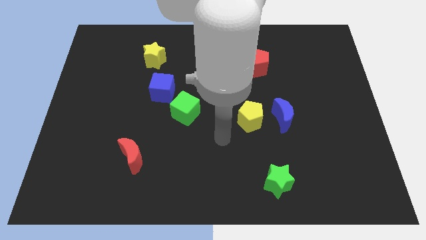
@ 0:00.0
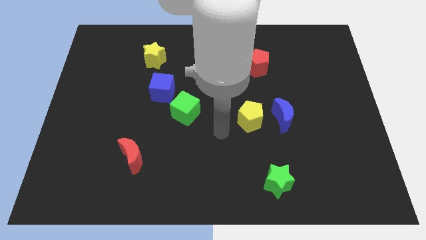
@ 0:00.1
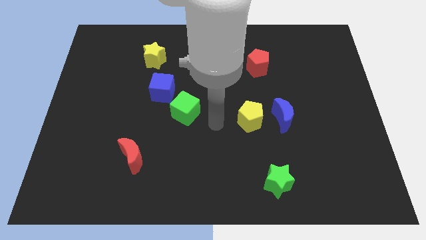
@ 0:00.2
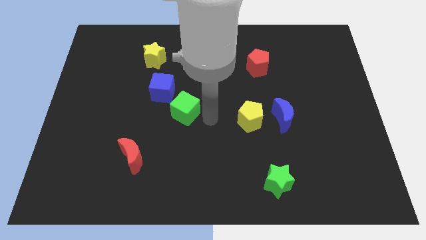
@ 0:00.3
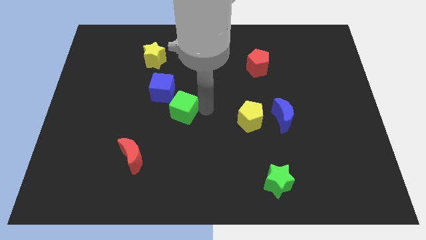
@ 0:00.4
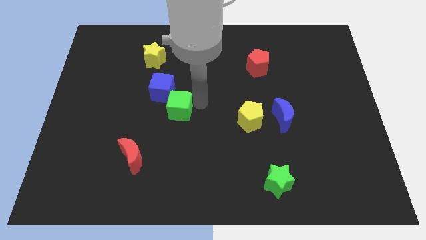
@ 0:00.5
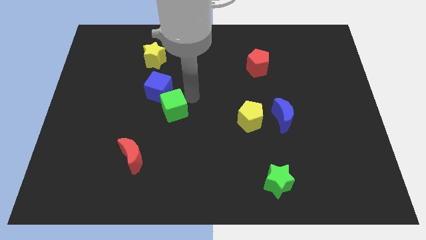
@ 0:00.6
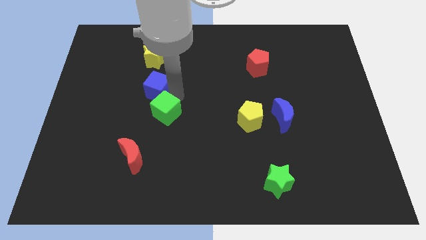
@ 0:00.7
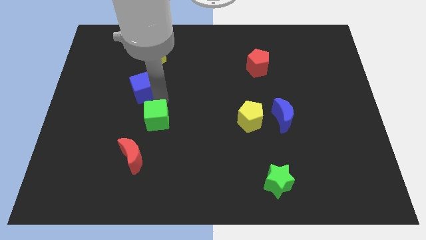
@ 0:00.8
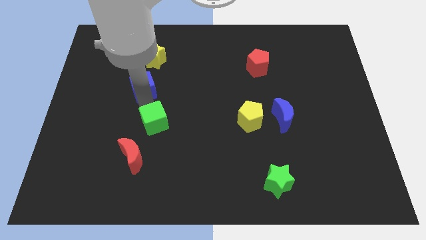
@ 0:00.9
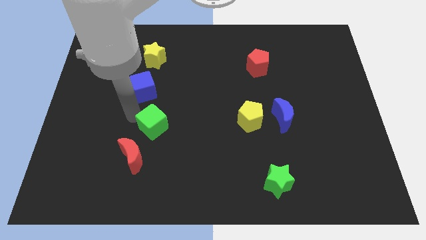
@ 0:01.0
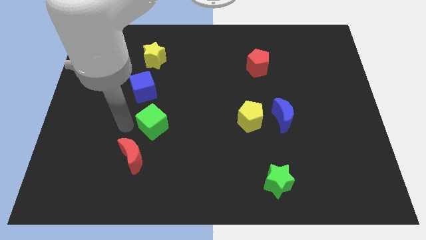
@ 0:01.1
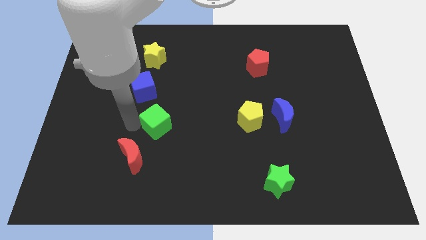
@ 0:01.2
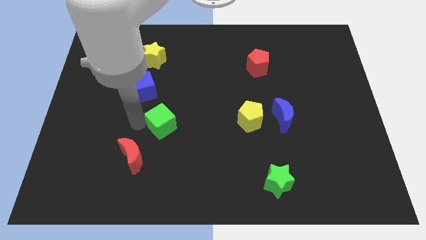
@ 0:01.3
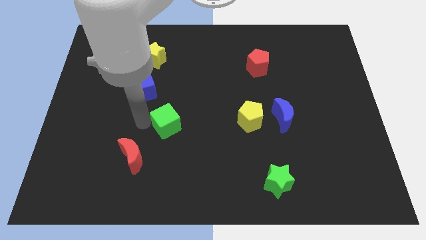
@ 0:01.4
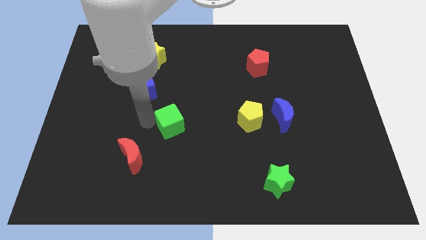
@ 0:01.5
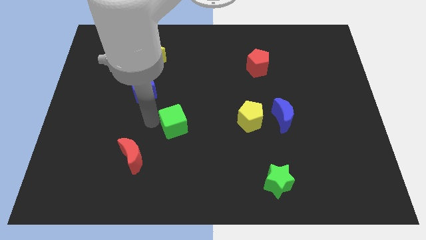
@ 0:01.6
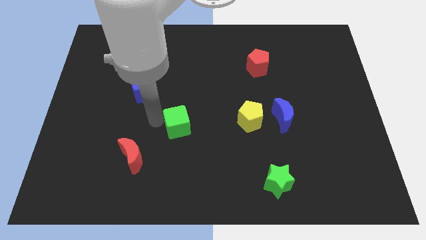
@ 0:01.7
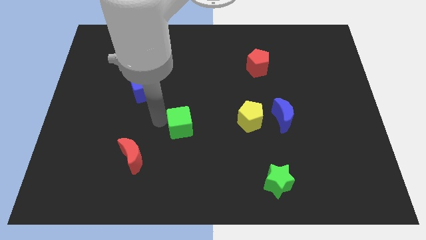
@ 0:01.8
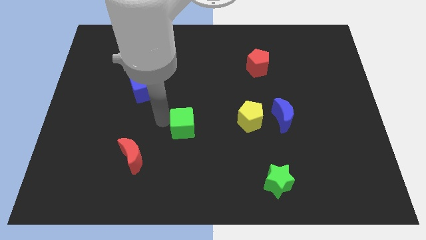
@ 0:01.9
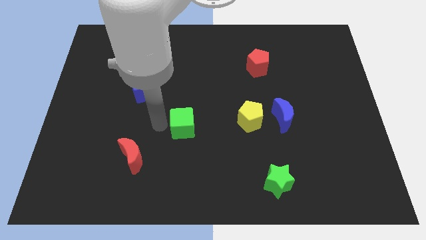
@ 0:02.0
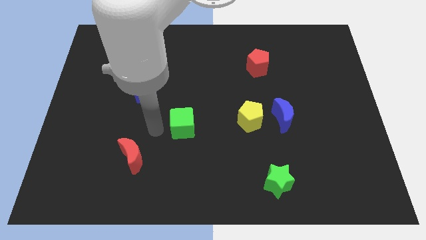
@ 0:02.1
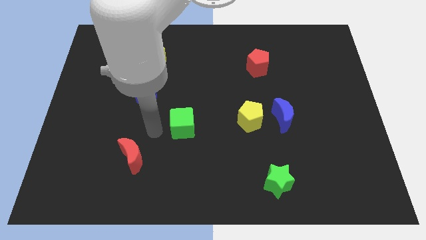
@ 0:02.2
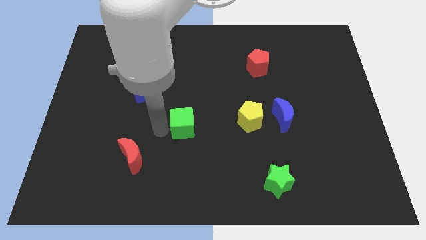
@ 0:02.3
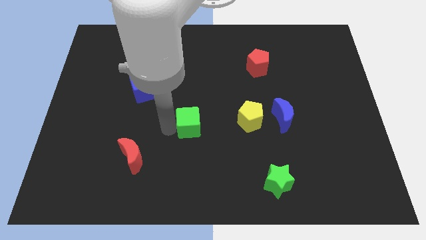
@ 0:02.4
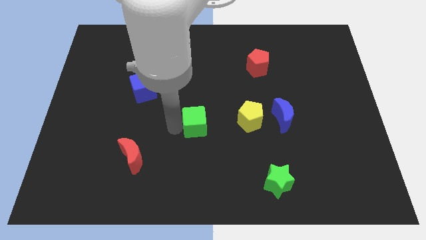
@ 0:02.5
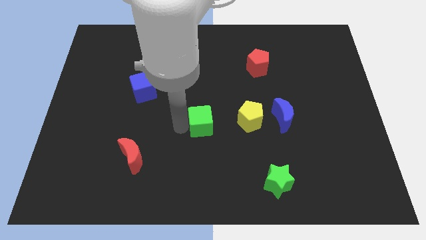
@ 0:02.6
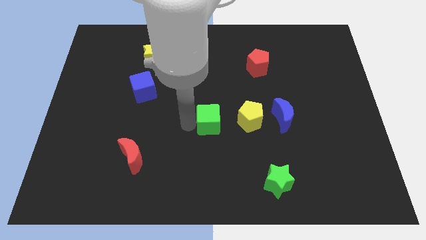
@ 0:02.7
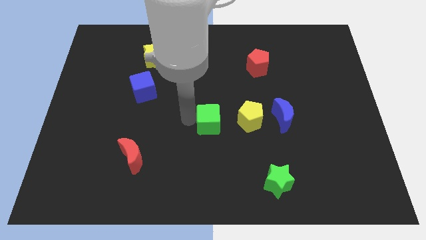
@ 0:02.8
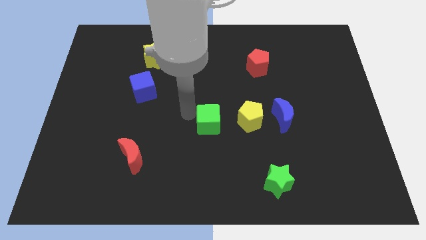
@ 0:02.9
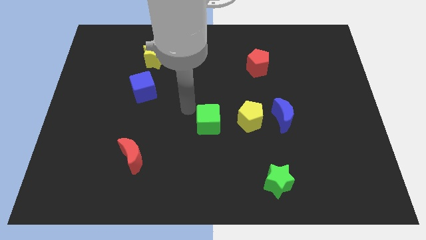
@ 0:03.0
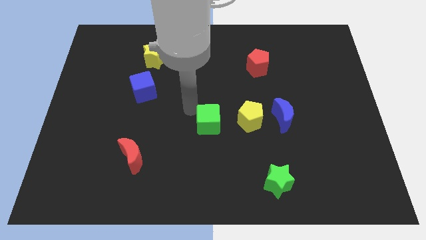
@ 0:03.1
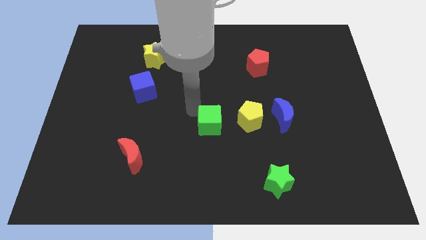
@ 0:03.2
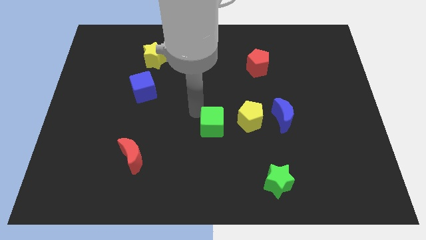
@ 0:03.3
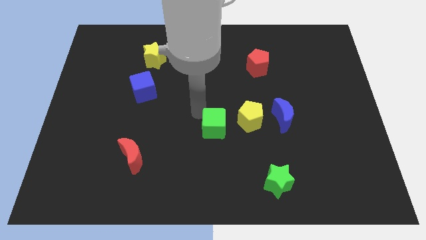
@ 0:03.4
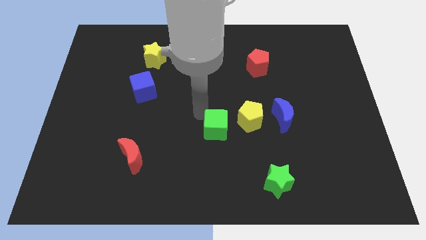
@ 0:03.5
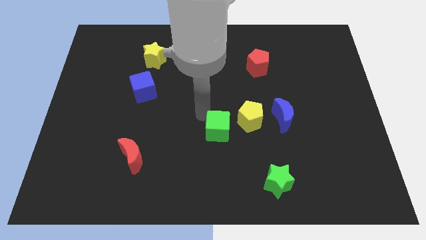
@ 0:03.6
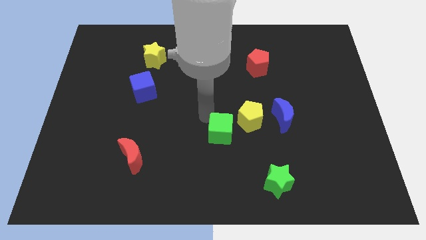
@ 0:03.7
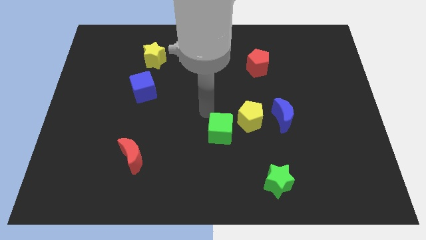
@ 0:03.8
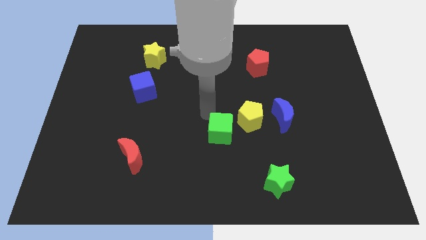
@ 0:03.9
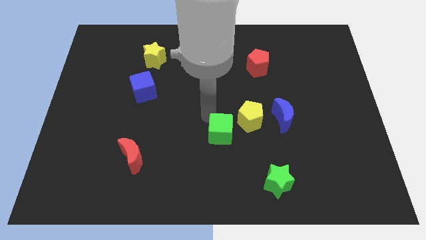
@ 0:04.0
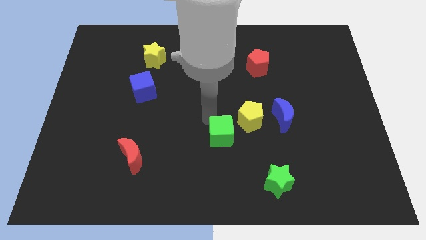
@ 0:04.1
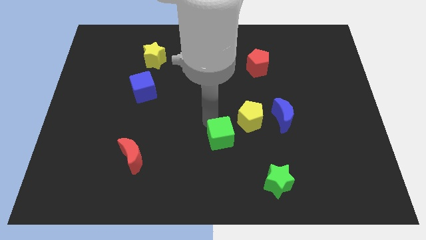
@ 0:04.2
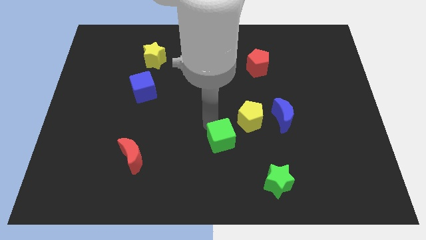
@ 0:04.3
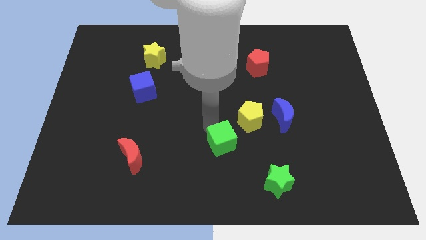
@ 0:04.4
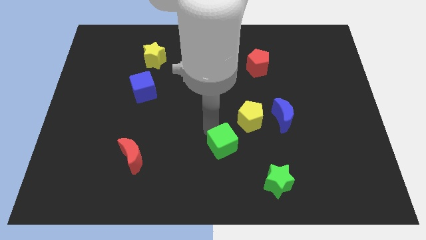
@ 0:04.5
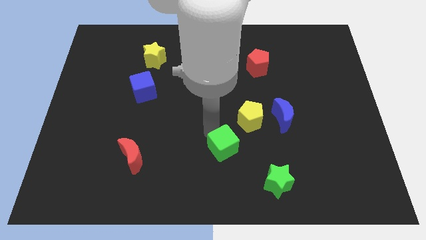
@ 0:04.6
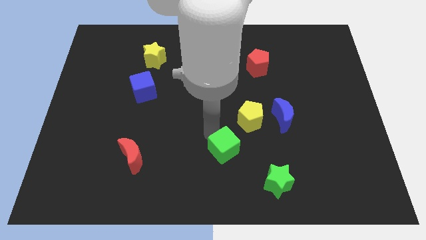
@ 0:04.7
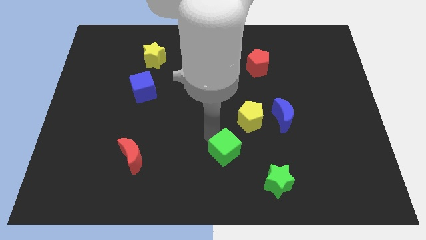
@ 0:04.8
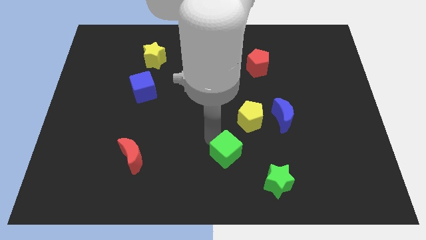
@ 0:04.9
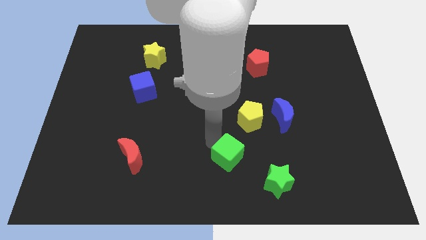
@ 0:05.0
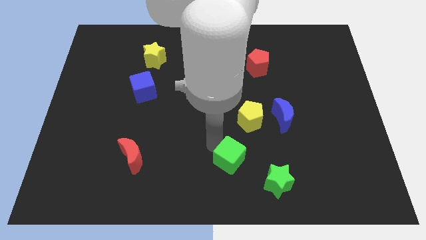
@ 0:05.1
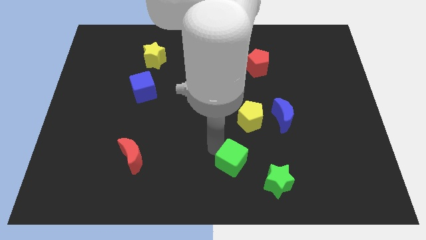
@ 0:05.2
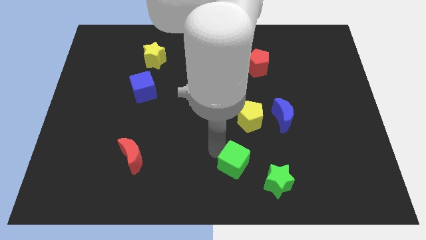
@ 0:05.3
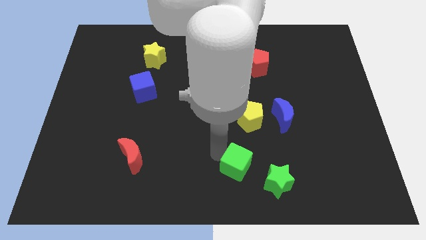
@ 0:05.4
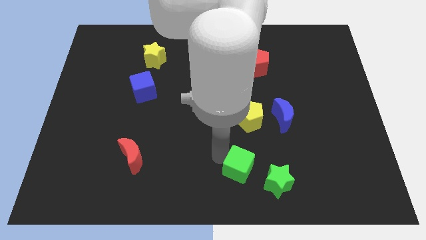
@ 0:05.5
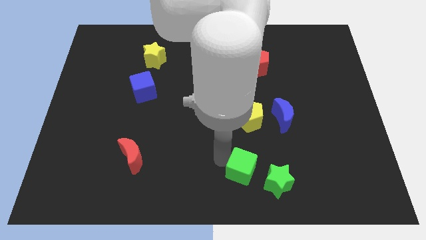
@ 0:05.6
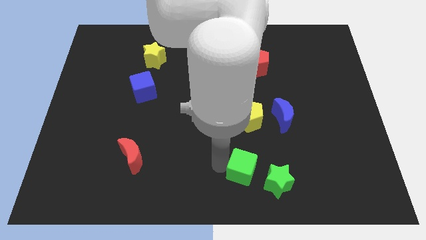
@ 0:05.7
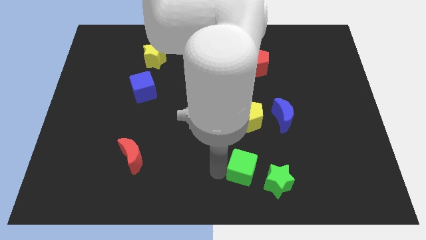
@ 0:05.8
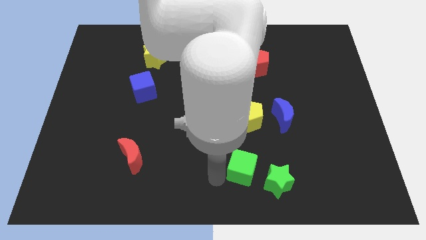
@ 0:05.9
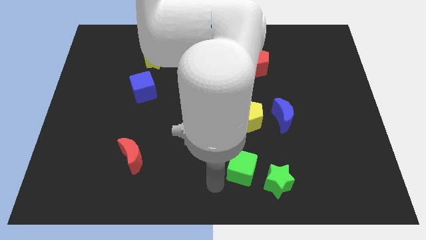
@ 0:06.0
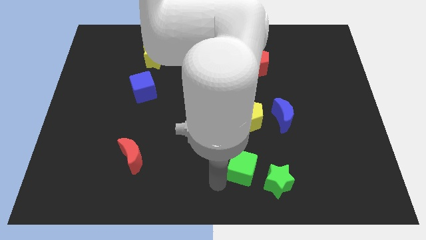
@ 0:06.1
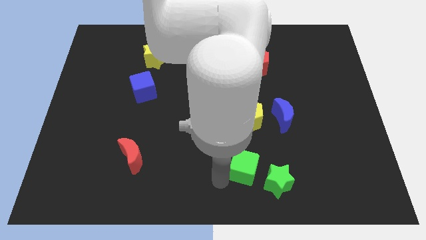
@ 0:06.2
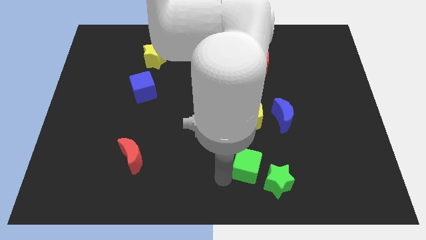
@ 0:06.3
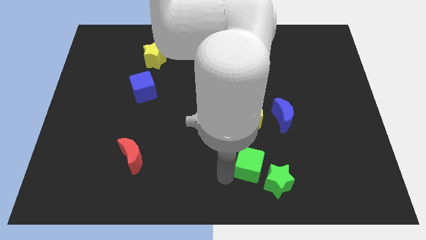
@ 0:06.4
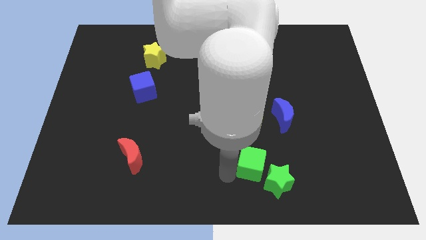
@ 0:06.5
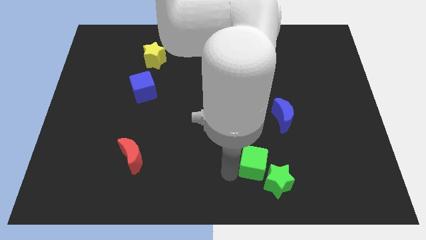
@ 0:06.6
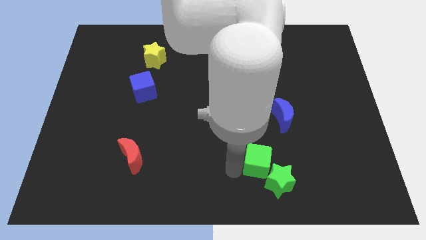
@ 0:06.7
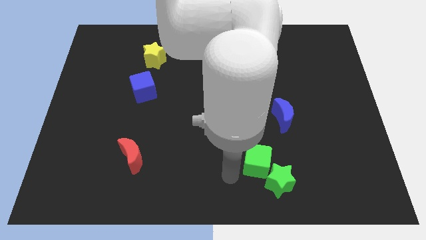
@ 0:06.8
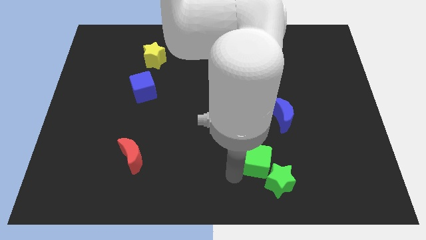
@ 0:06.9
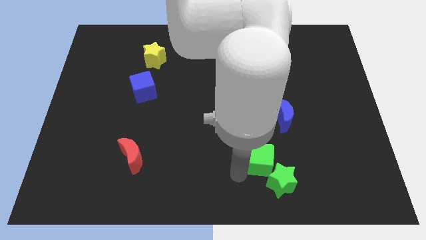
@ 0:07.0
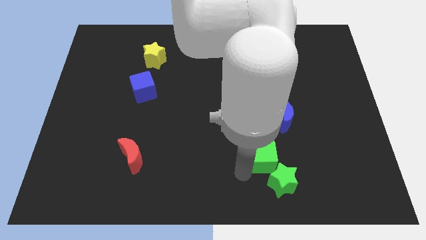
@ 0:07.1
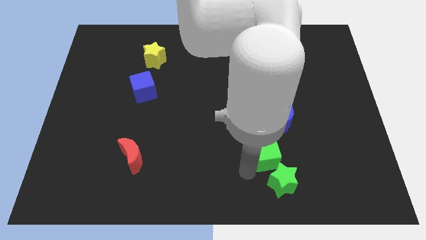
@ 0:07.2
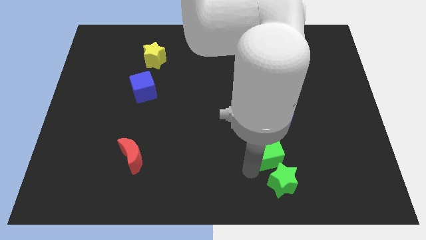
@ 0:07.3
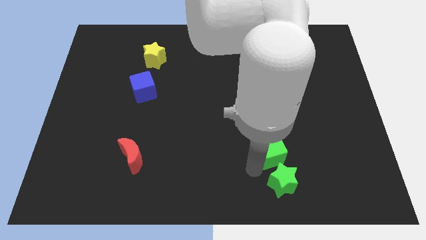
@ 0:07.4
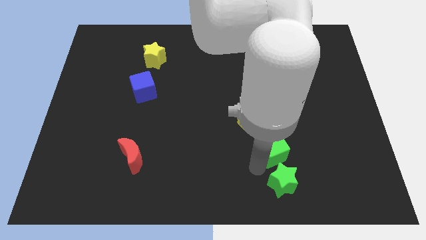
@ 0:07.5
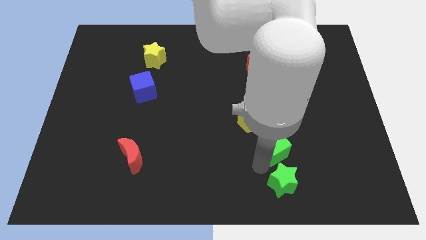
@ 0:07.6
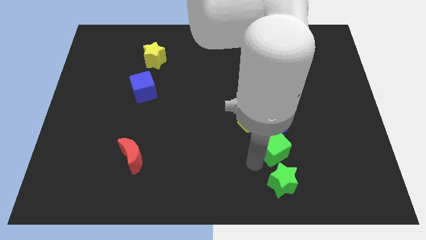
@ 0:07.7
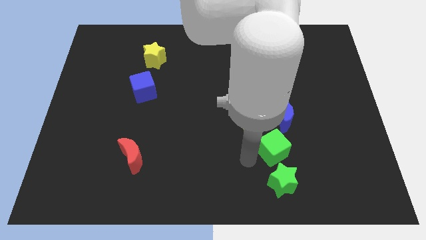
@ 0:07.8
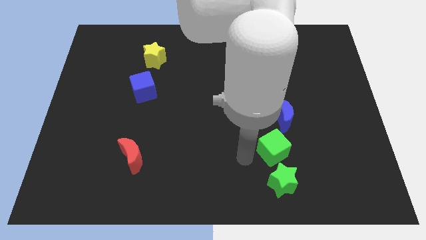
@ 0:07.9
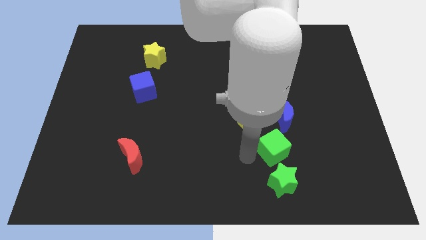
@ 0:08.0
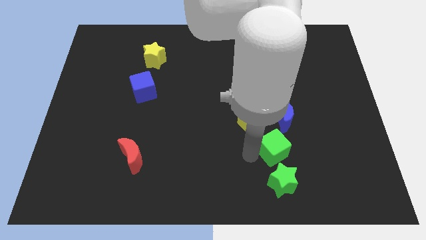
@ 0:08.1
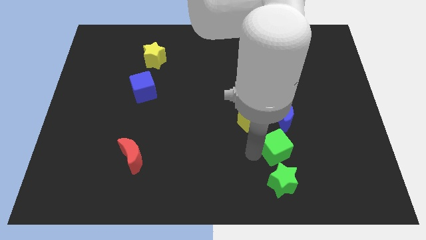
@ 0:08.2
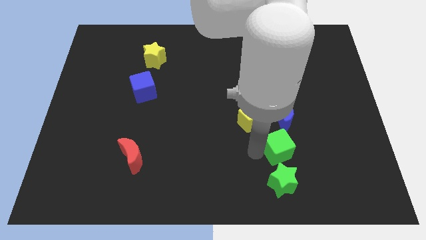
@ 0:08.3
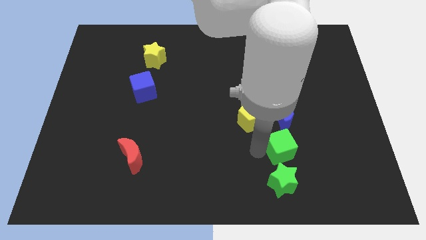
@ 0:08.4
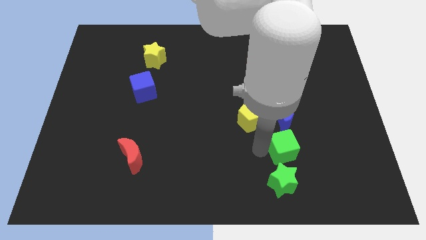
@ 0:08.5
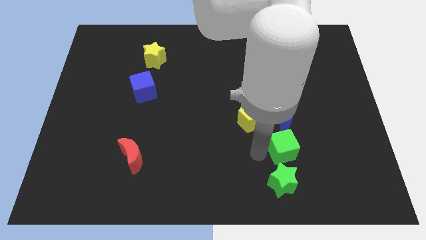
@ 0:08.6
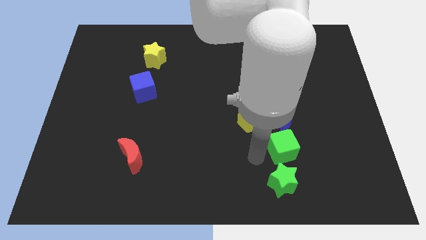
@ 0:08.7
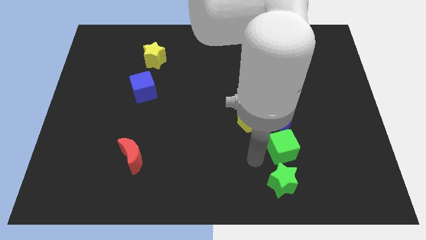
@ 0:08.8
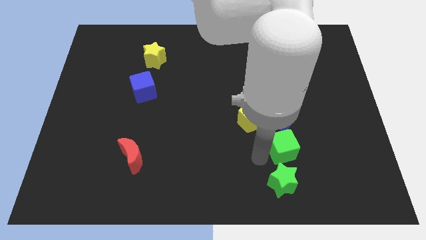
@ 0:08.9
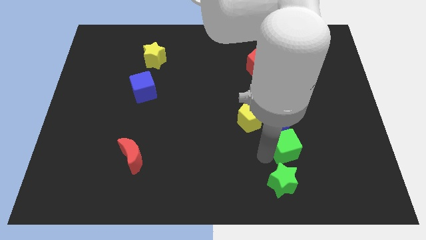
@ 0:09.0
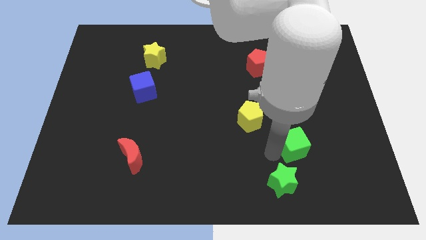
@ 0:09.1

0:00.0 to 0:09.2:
put the green cube diagonally down and to the right of the blue moon
